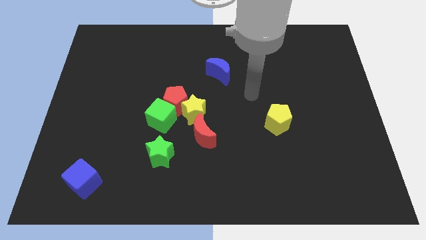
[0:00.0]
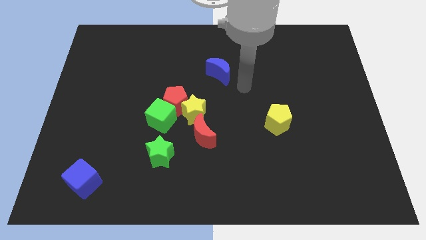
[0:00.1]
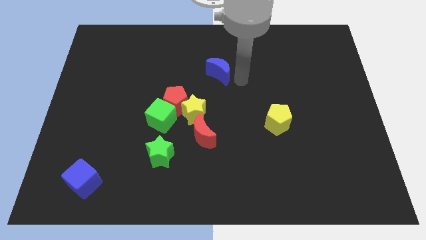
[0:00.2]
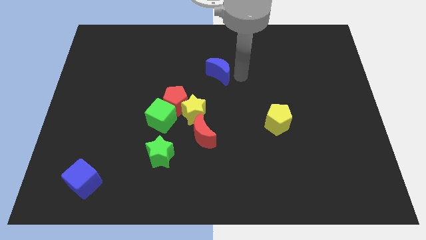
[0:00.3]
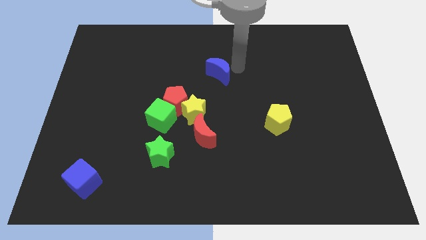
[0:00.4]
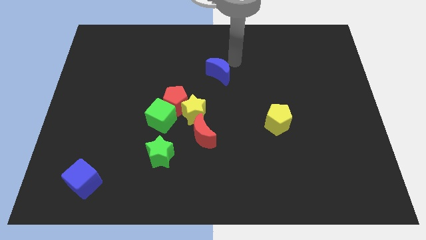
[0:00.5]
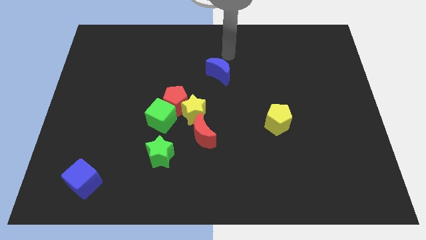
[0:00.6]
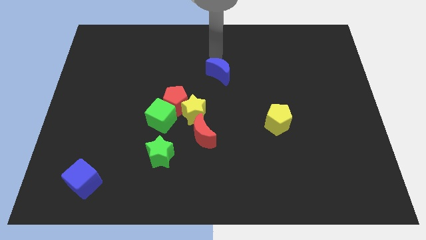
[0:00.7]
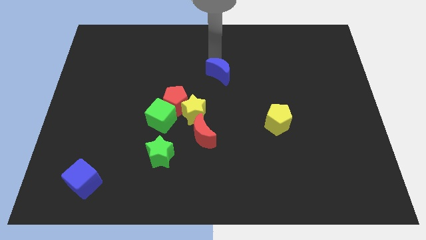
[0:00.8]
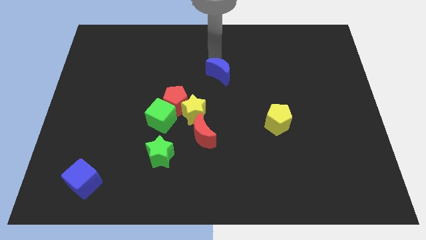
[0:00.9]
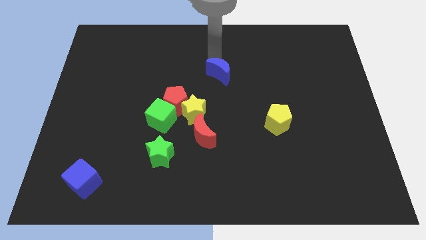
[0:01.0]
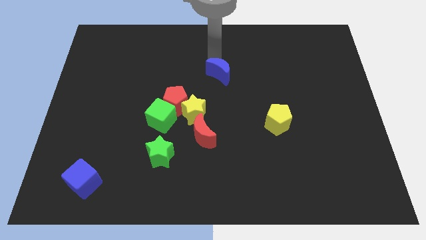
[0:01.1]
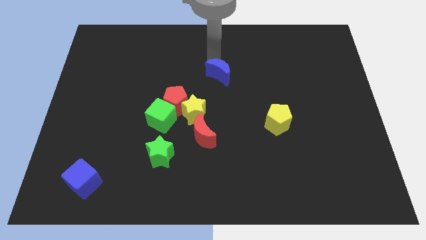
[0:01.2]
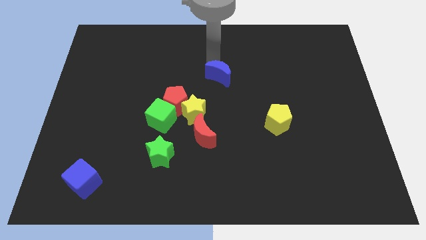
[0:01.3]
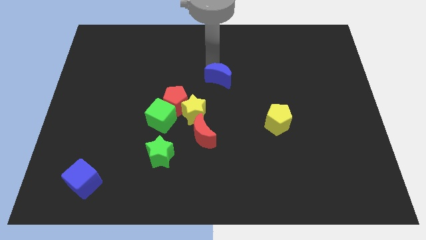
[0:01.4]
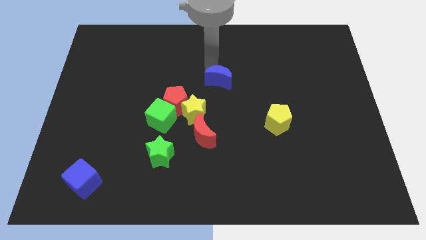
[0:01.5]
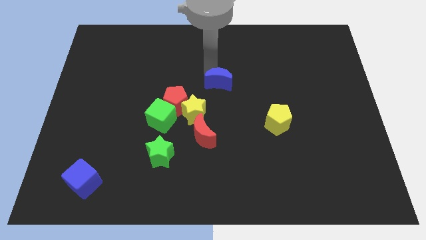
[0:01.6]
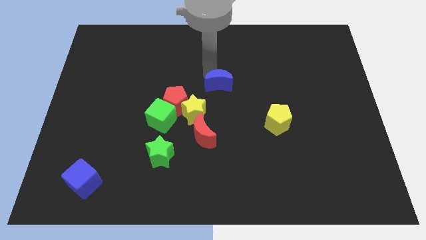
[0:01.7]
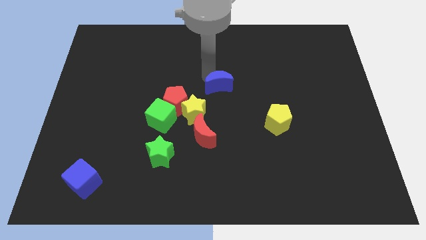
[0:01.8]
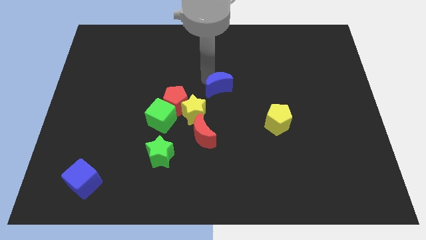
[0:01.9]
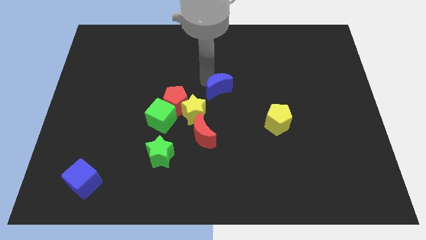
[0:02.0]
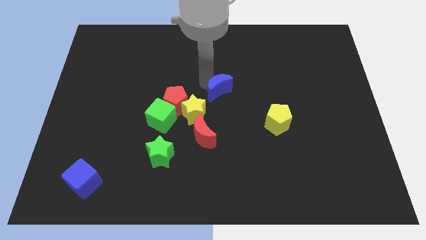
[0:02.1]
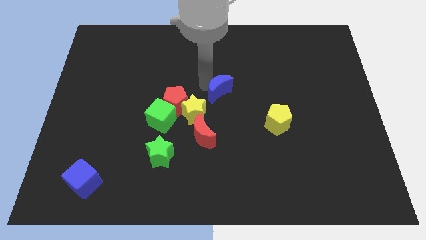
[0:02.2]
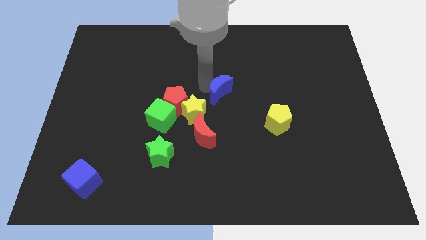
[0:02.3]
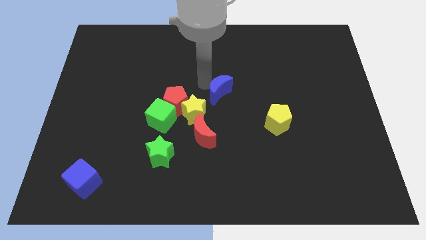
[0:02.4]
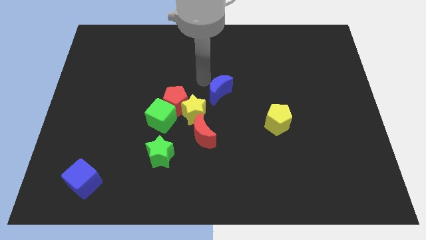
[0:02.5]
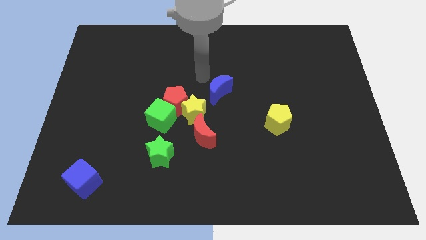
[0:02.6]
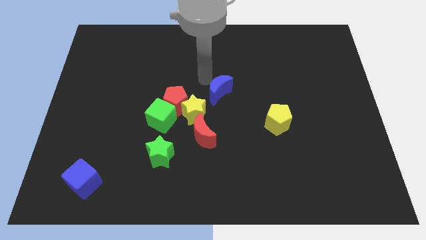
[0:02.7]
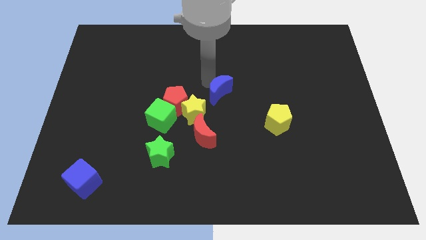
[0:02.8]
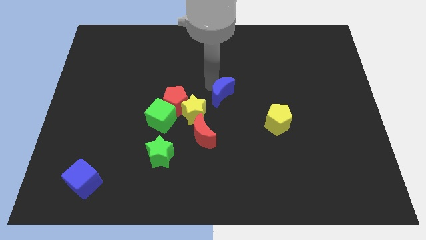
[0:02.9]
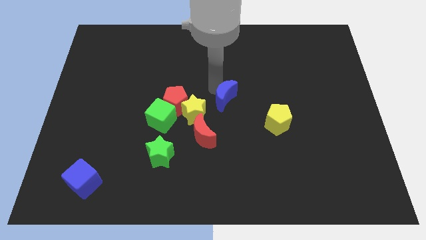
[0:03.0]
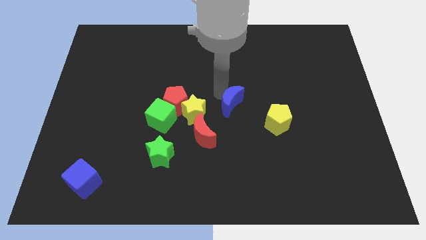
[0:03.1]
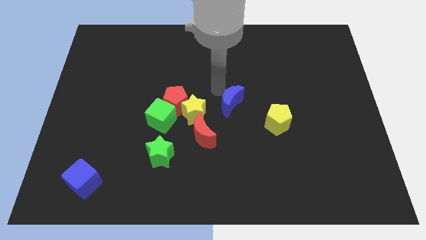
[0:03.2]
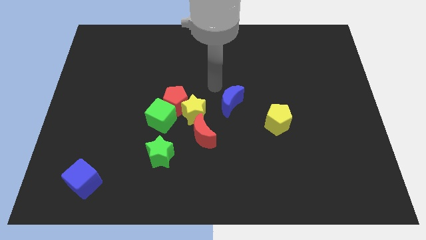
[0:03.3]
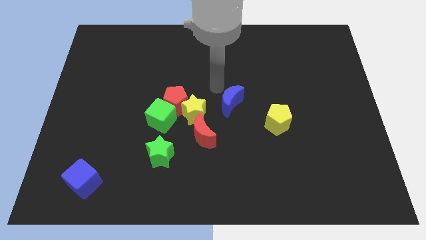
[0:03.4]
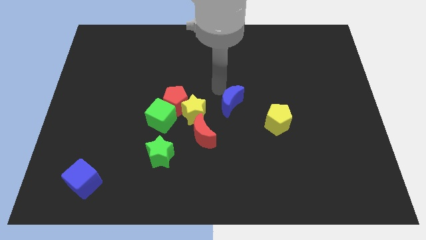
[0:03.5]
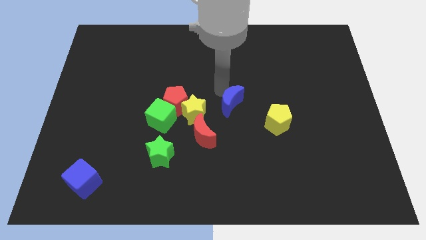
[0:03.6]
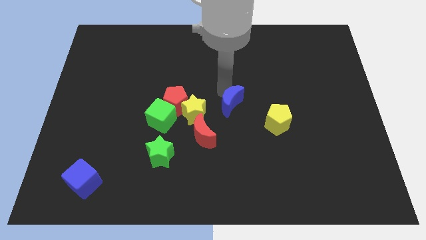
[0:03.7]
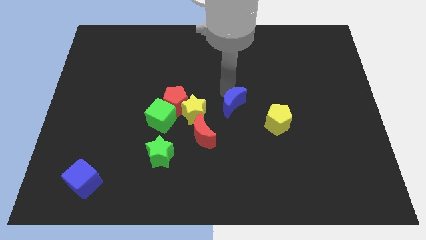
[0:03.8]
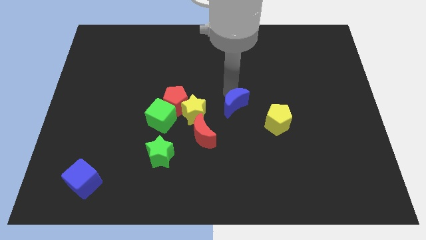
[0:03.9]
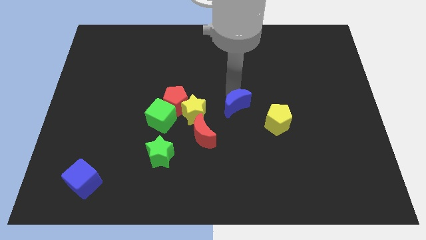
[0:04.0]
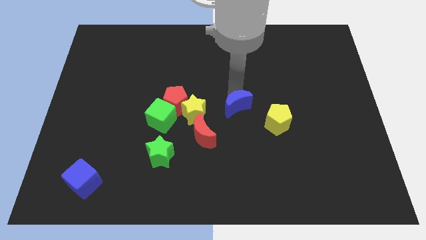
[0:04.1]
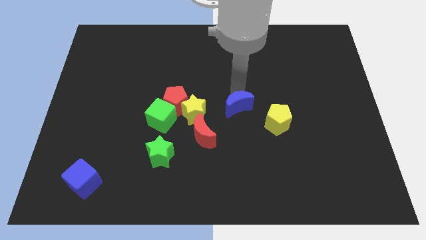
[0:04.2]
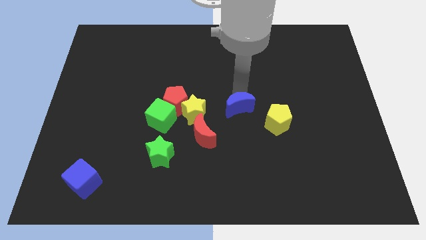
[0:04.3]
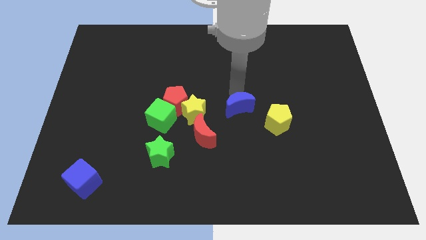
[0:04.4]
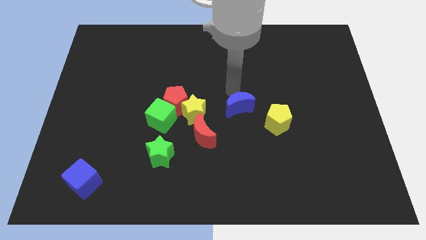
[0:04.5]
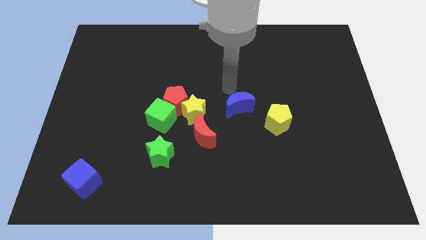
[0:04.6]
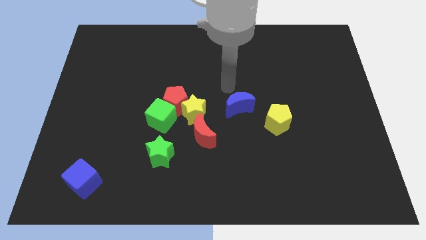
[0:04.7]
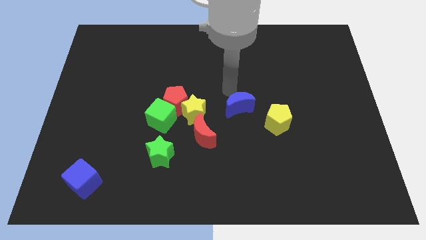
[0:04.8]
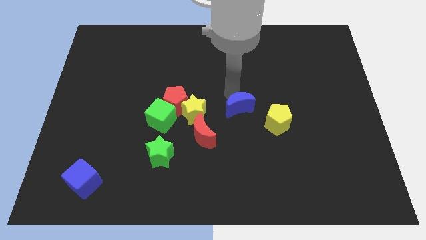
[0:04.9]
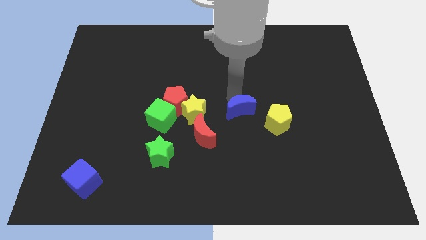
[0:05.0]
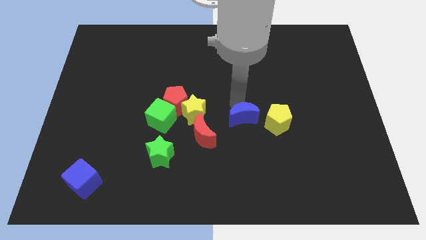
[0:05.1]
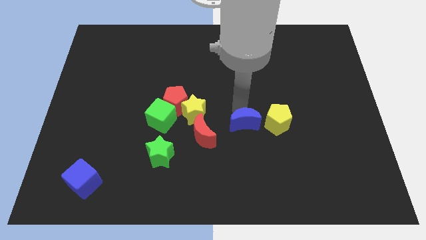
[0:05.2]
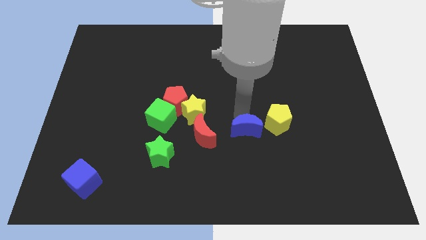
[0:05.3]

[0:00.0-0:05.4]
put the blue moon to the bottom left of the yellow pentagon

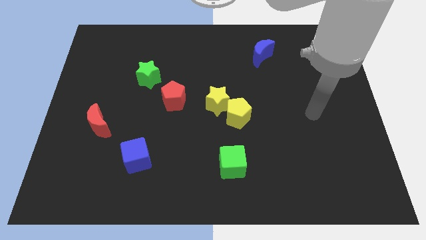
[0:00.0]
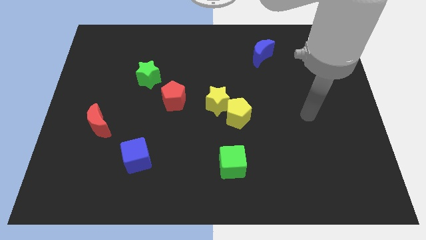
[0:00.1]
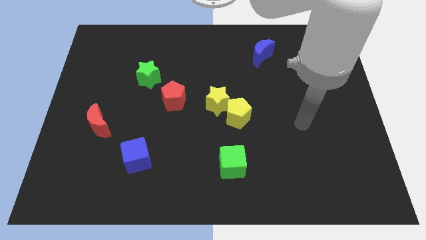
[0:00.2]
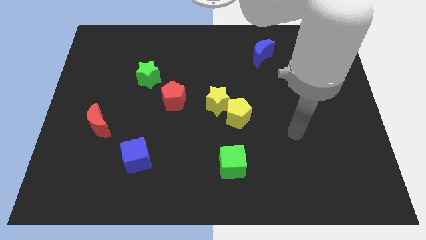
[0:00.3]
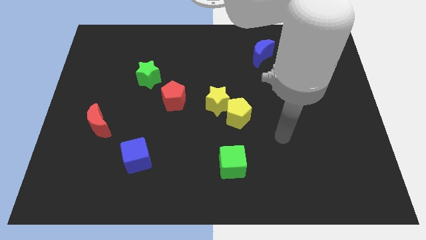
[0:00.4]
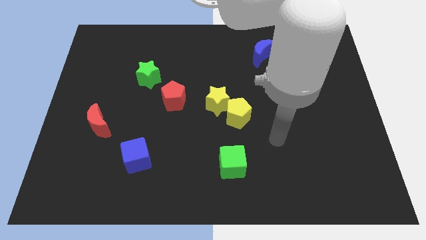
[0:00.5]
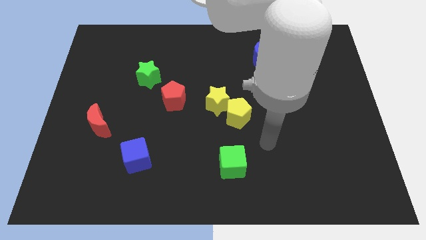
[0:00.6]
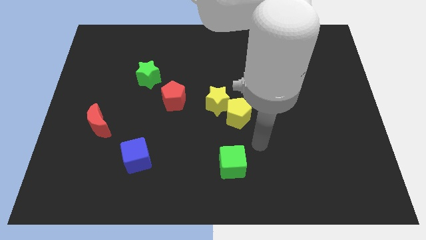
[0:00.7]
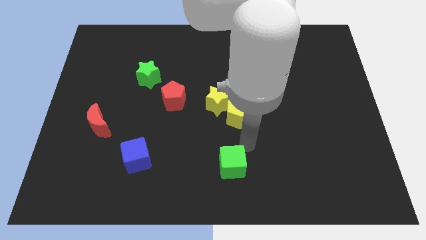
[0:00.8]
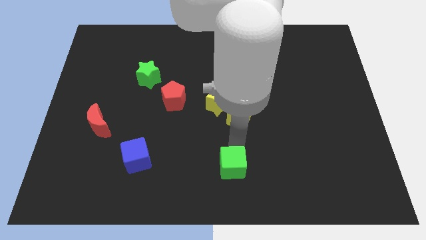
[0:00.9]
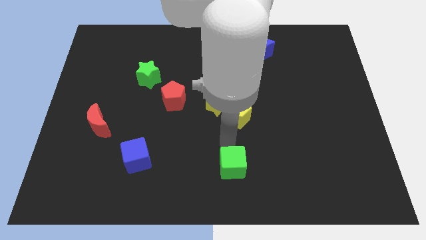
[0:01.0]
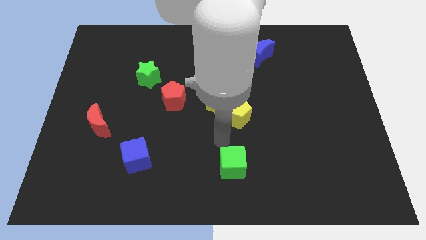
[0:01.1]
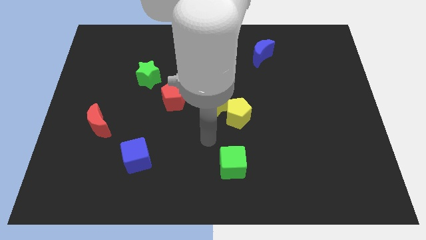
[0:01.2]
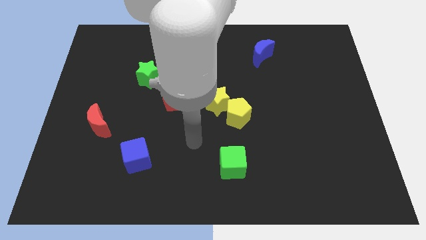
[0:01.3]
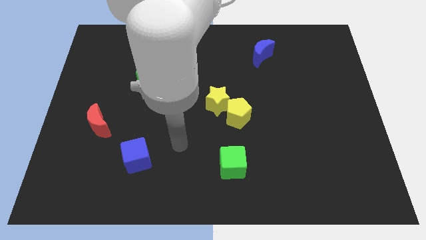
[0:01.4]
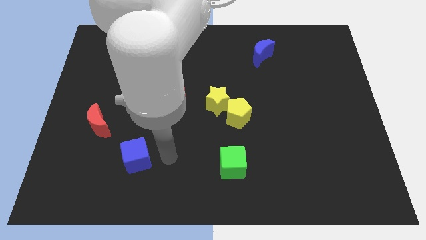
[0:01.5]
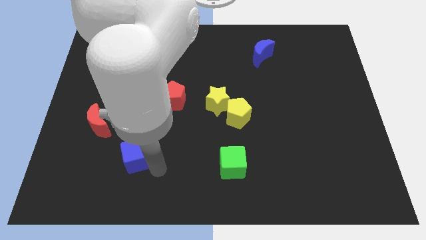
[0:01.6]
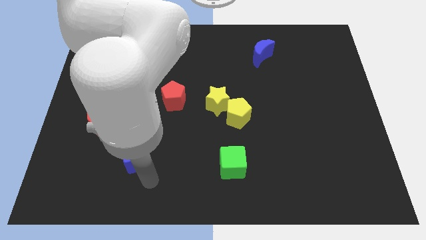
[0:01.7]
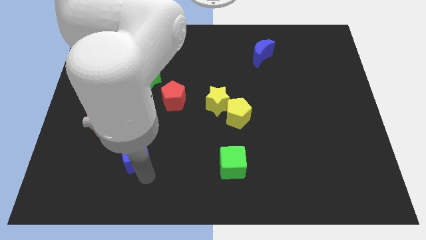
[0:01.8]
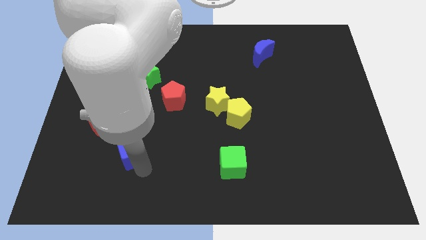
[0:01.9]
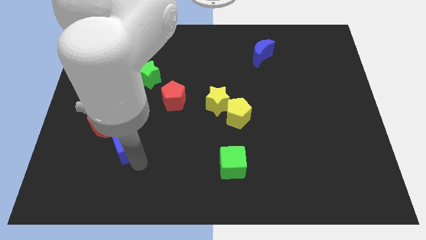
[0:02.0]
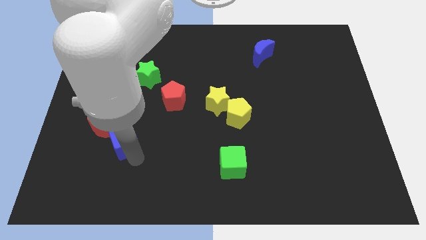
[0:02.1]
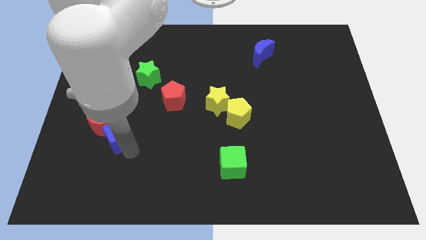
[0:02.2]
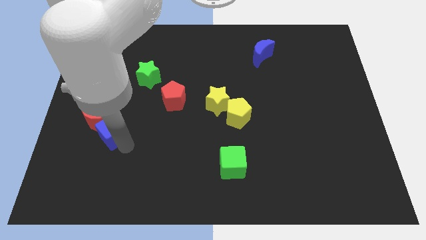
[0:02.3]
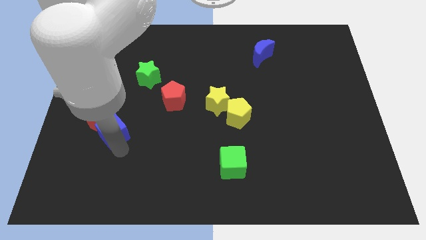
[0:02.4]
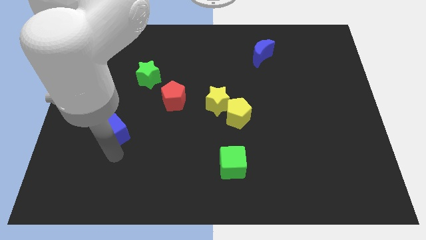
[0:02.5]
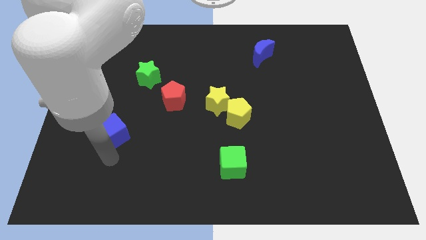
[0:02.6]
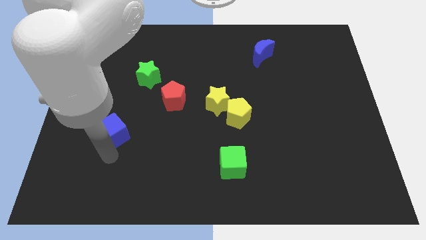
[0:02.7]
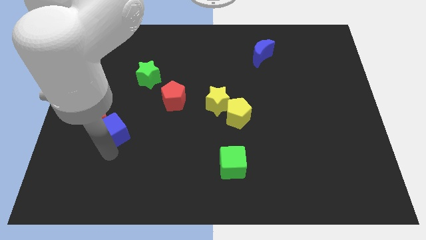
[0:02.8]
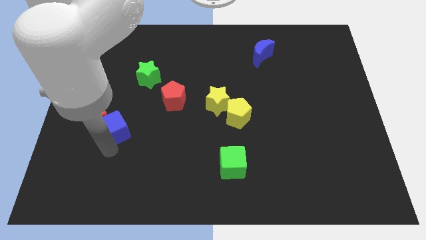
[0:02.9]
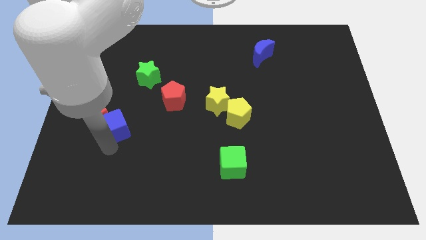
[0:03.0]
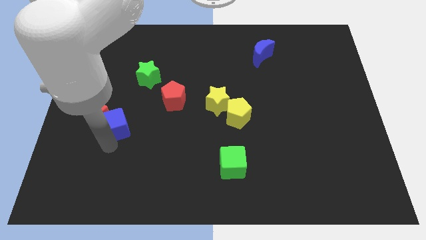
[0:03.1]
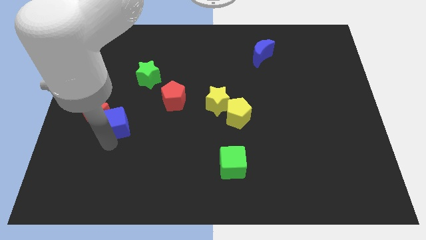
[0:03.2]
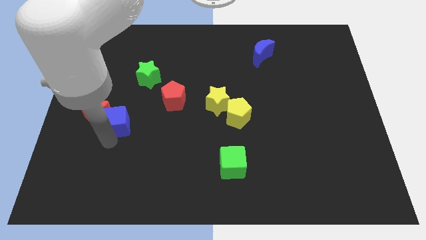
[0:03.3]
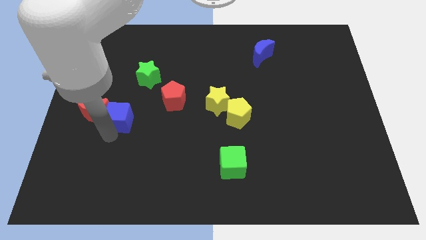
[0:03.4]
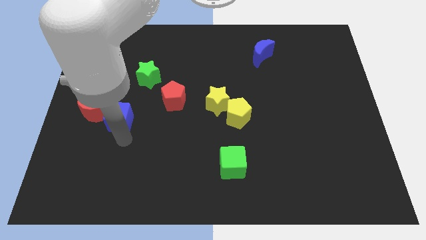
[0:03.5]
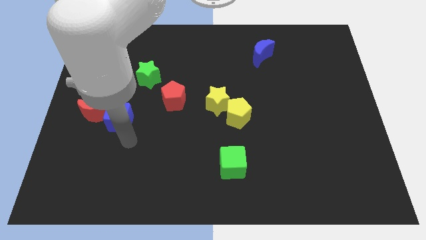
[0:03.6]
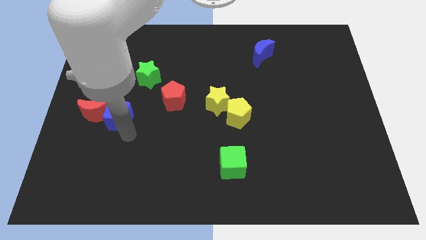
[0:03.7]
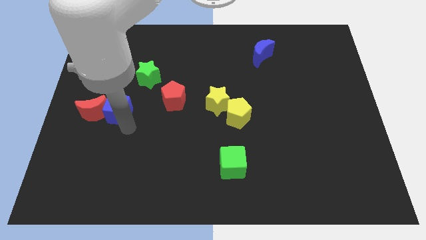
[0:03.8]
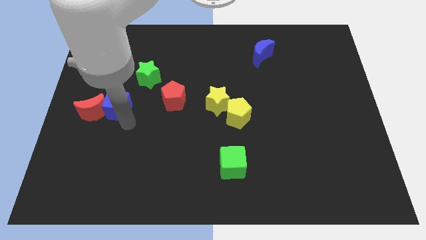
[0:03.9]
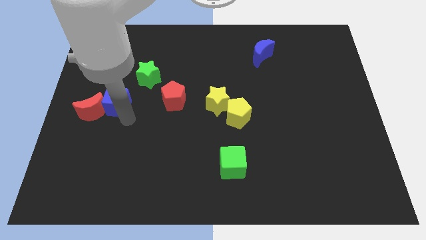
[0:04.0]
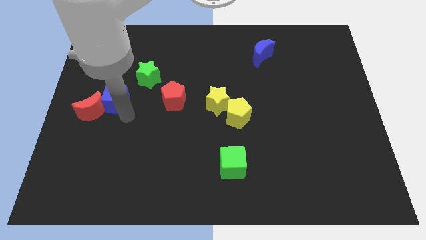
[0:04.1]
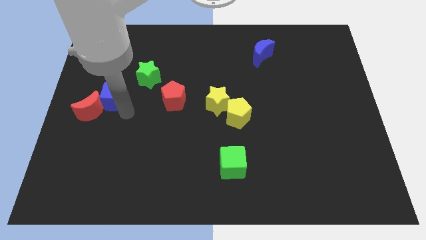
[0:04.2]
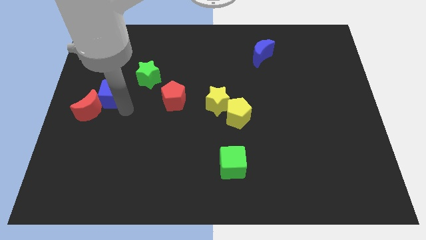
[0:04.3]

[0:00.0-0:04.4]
put the blue cube to the top of the red moon
